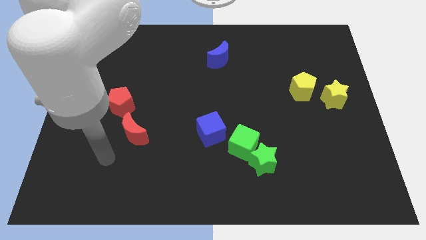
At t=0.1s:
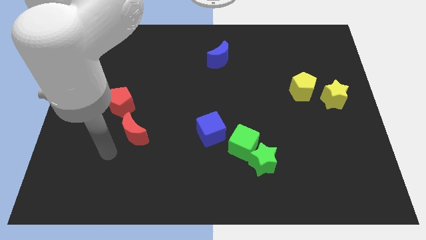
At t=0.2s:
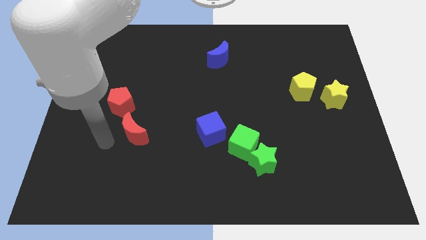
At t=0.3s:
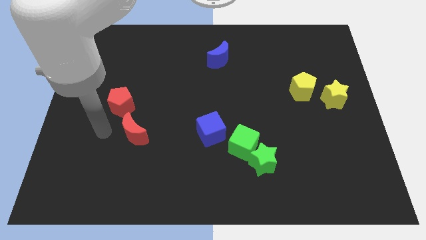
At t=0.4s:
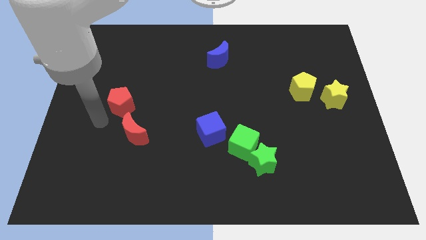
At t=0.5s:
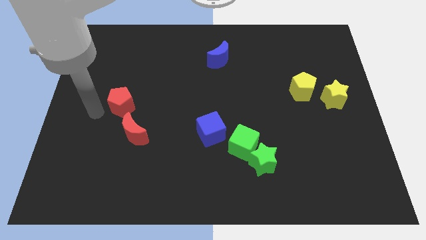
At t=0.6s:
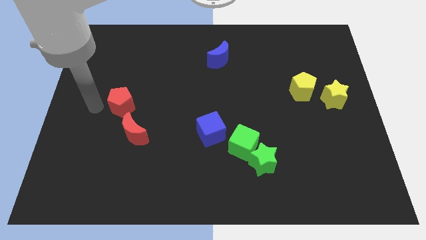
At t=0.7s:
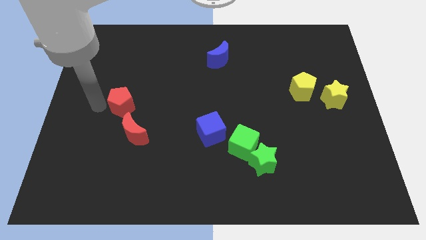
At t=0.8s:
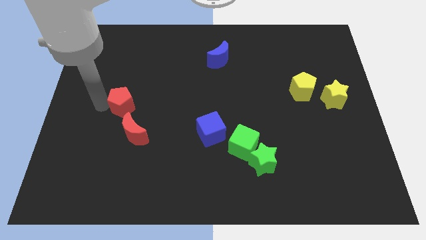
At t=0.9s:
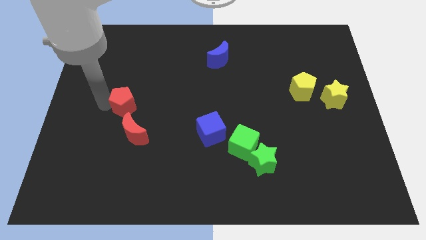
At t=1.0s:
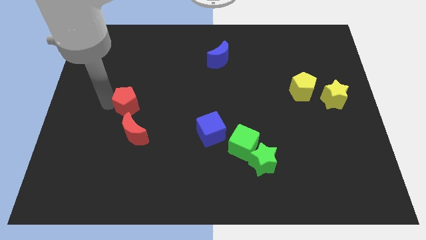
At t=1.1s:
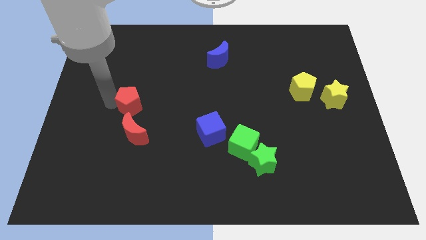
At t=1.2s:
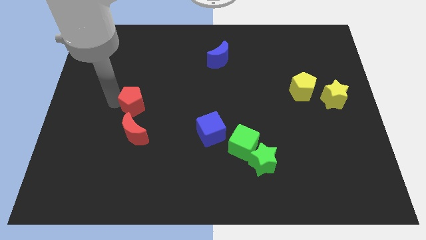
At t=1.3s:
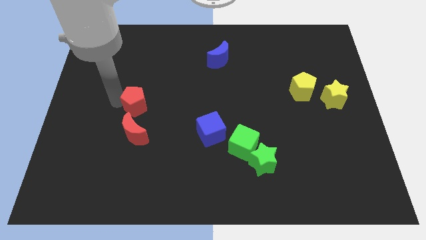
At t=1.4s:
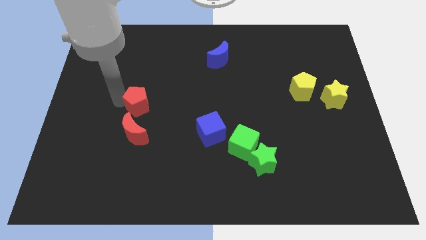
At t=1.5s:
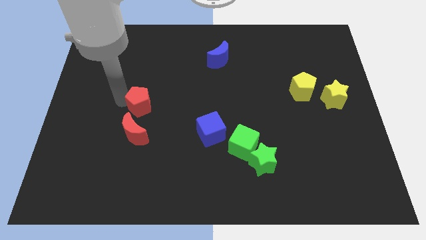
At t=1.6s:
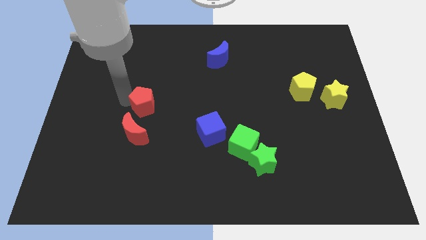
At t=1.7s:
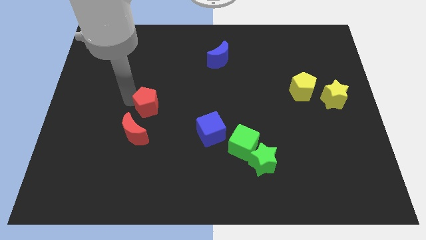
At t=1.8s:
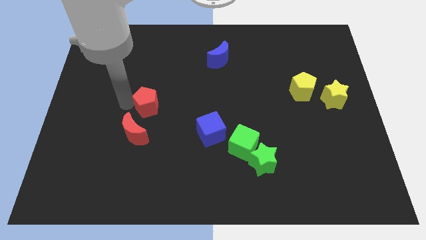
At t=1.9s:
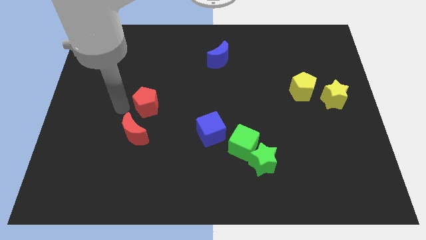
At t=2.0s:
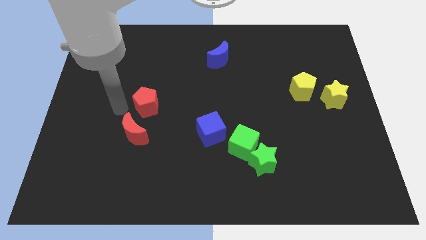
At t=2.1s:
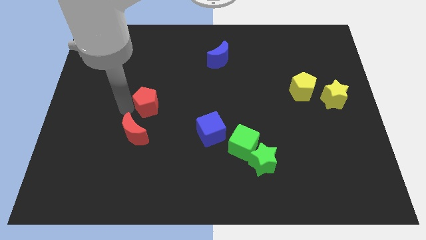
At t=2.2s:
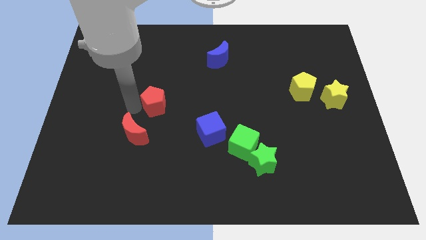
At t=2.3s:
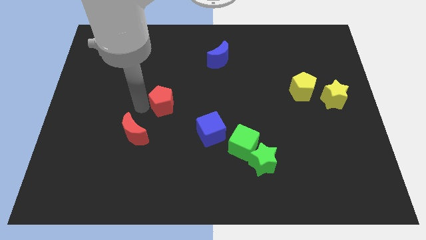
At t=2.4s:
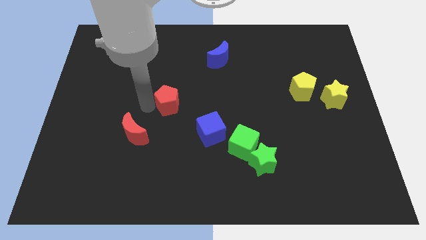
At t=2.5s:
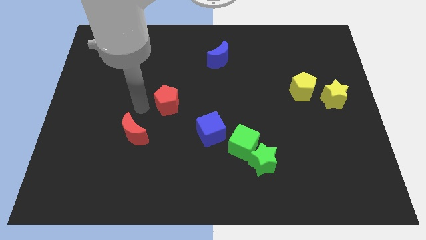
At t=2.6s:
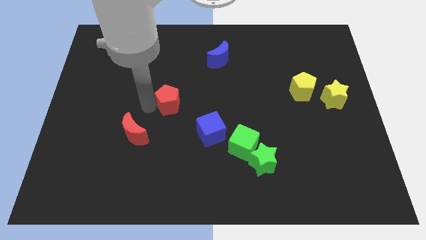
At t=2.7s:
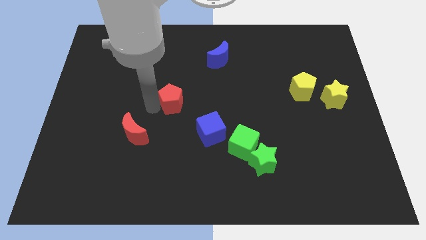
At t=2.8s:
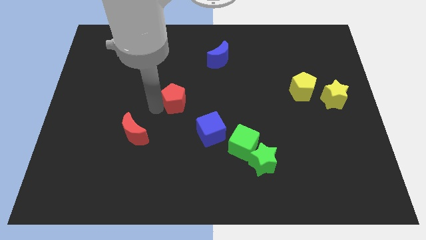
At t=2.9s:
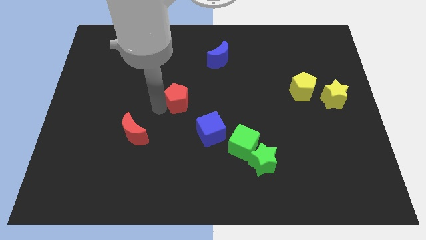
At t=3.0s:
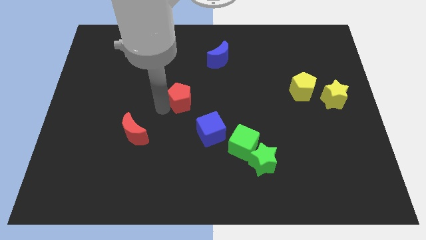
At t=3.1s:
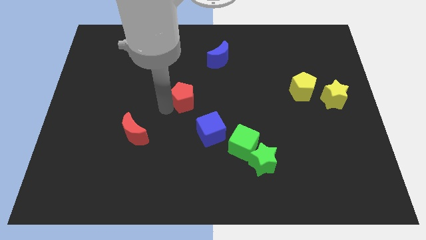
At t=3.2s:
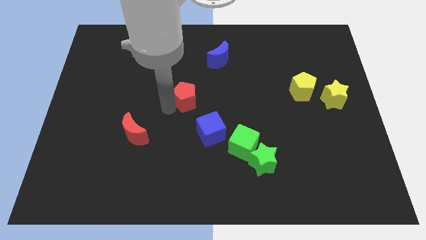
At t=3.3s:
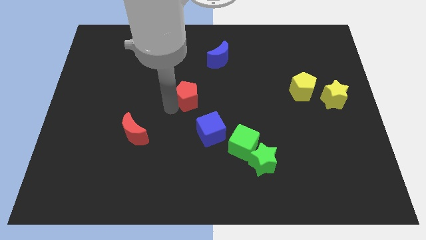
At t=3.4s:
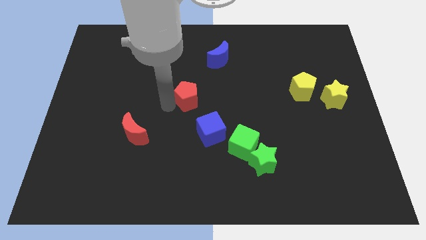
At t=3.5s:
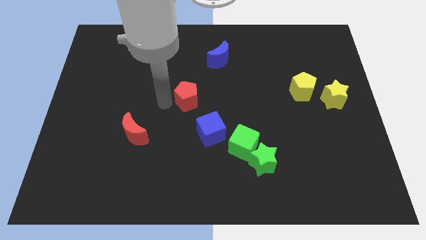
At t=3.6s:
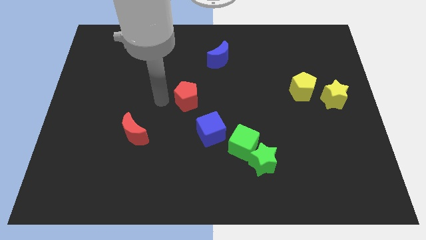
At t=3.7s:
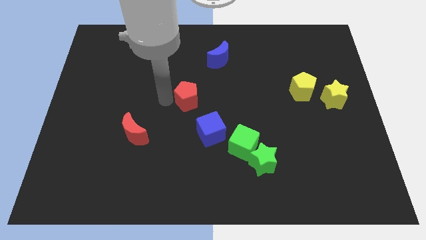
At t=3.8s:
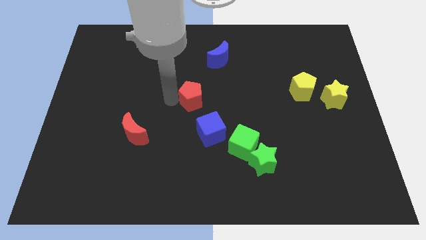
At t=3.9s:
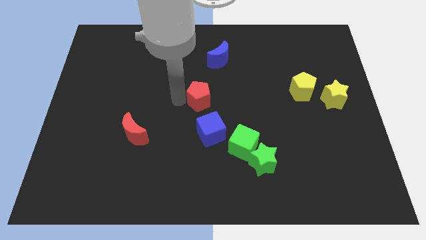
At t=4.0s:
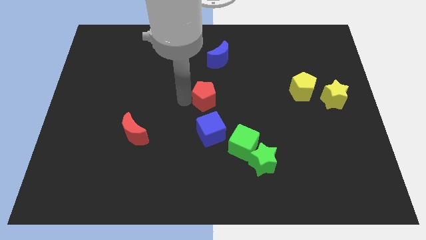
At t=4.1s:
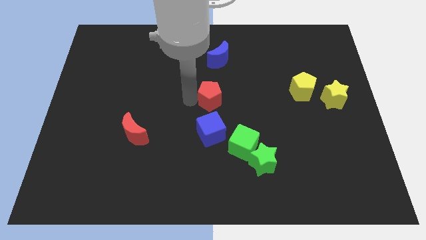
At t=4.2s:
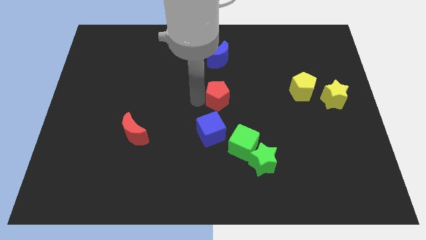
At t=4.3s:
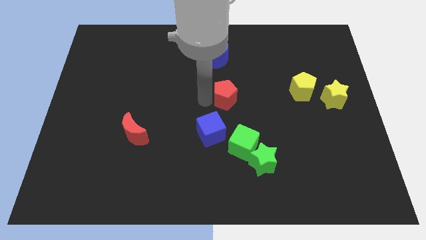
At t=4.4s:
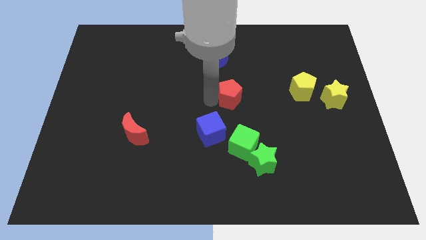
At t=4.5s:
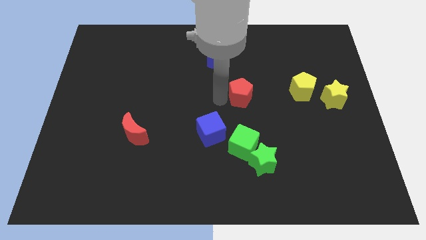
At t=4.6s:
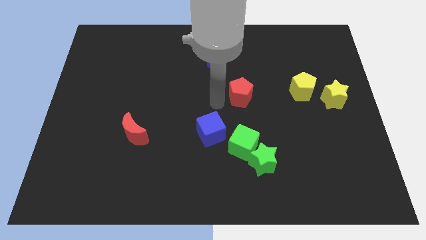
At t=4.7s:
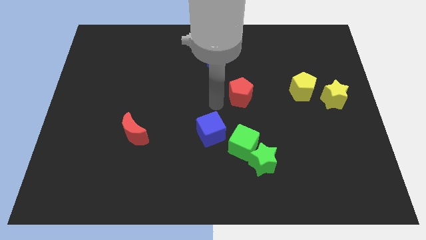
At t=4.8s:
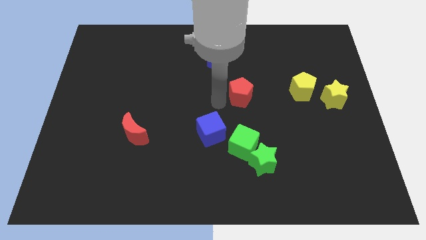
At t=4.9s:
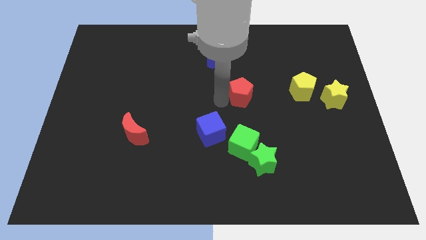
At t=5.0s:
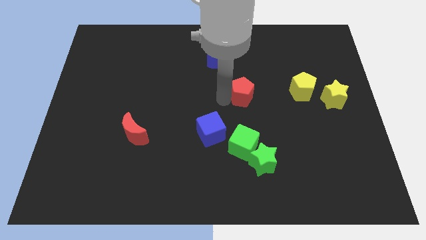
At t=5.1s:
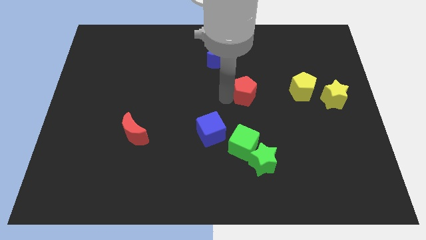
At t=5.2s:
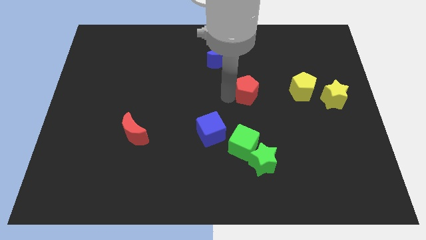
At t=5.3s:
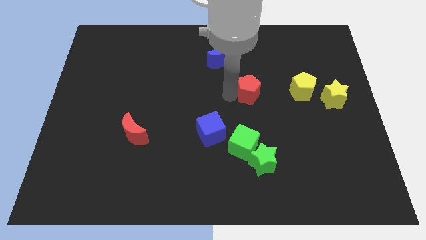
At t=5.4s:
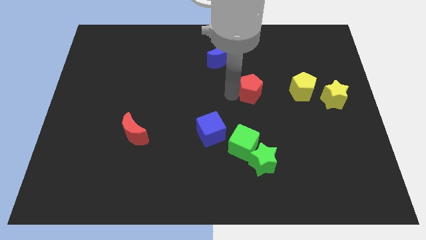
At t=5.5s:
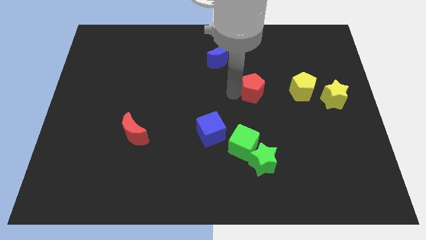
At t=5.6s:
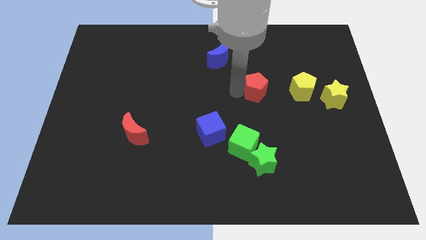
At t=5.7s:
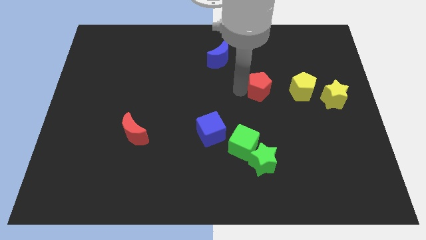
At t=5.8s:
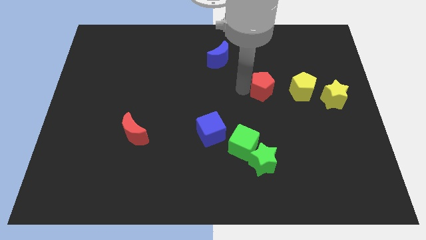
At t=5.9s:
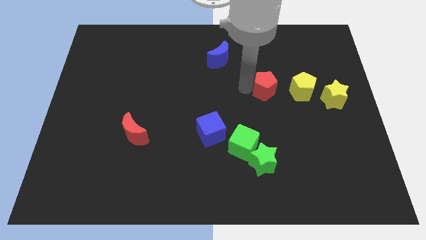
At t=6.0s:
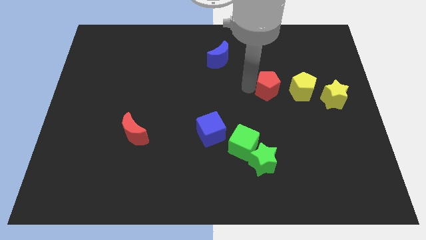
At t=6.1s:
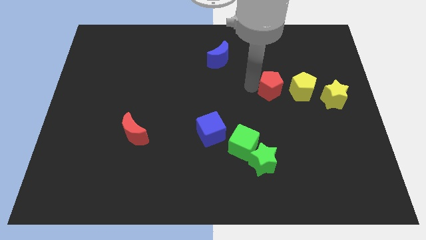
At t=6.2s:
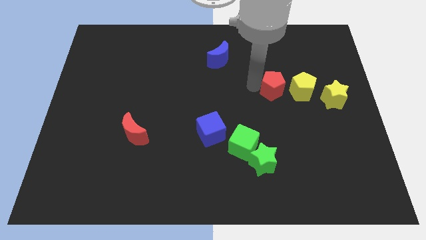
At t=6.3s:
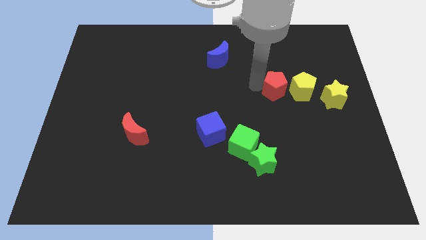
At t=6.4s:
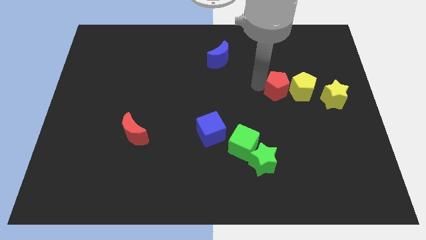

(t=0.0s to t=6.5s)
slide the red pentagon close to the yellow pentagon

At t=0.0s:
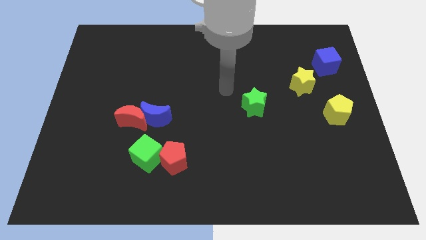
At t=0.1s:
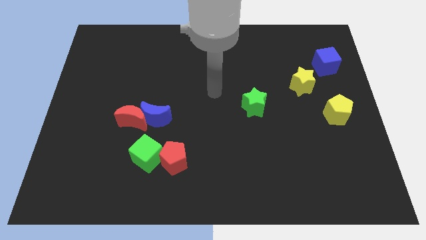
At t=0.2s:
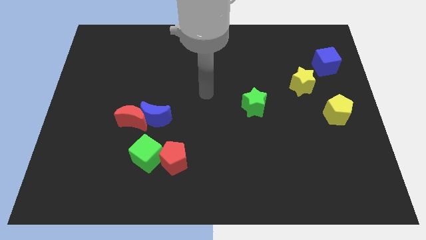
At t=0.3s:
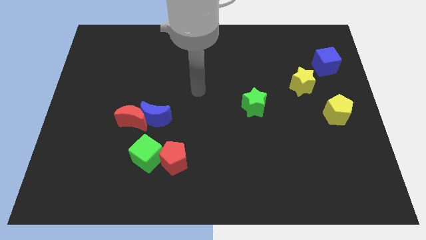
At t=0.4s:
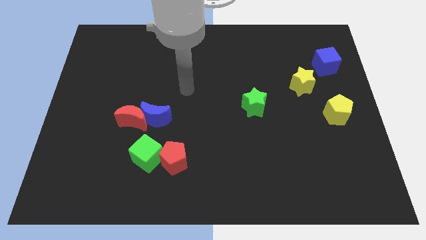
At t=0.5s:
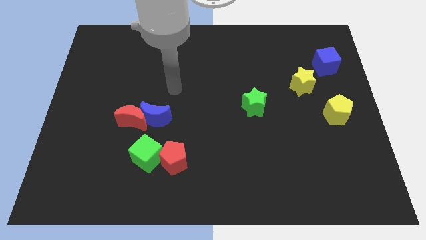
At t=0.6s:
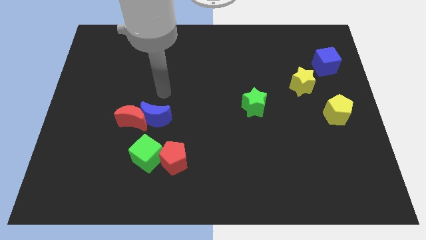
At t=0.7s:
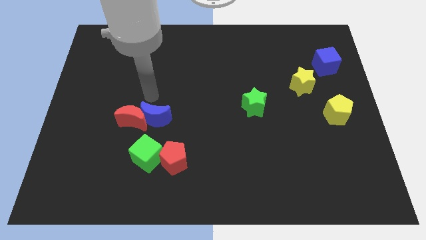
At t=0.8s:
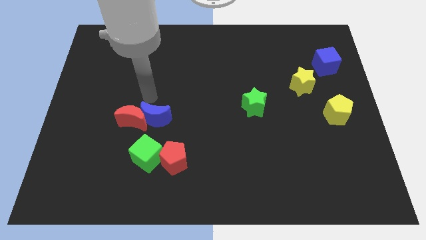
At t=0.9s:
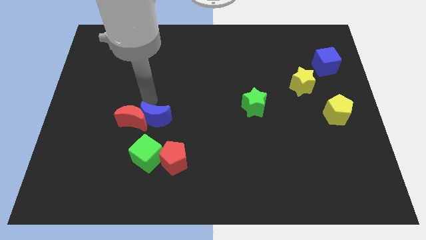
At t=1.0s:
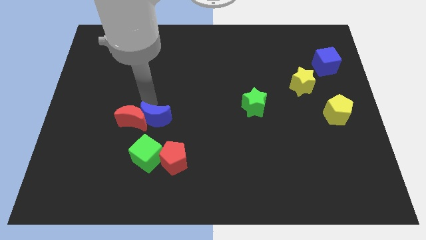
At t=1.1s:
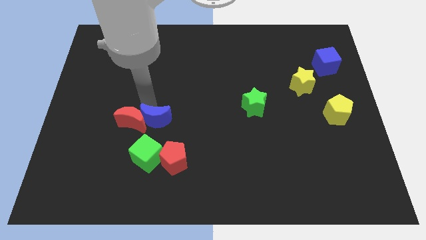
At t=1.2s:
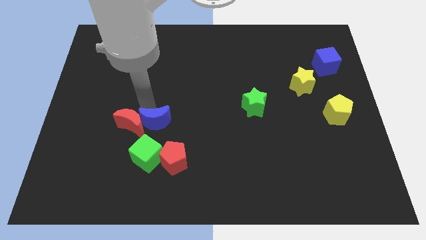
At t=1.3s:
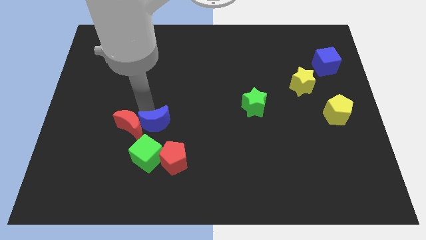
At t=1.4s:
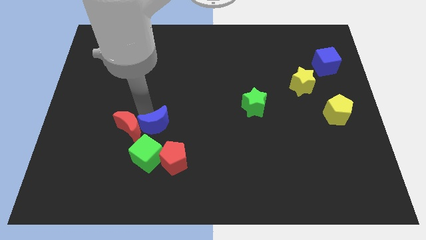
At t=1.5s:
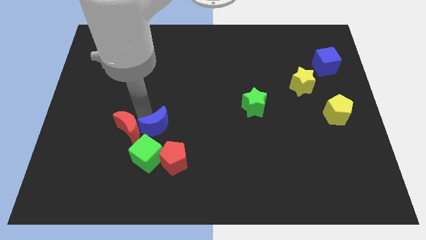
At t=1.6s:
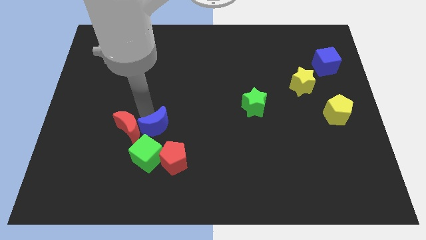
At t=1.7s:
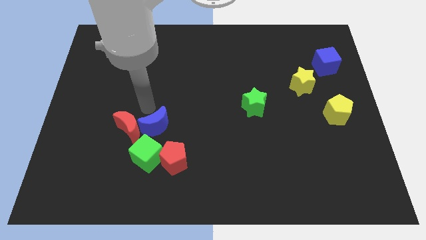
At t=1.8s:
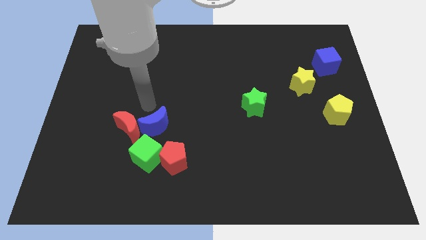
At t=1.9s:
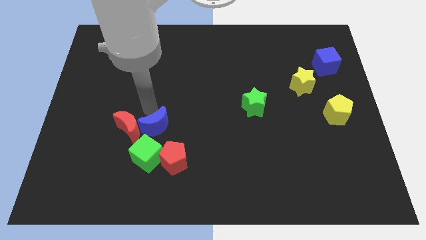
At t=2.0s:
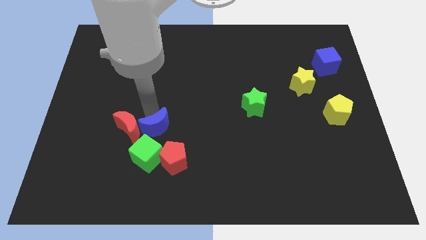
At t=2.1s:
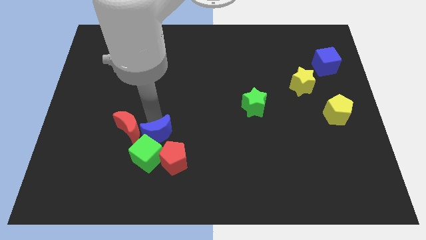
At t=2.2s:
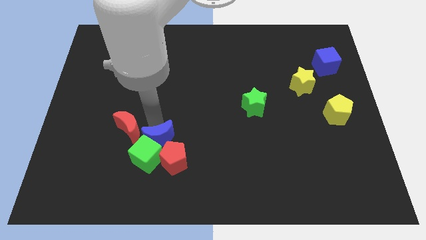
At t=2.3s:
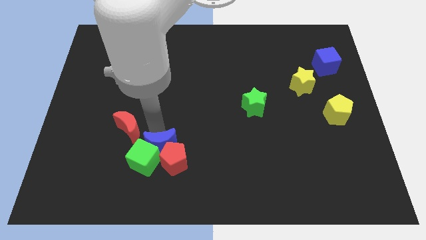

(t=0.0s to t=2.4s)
slide the blue moon next to the red pentagon
